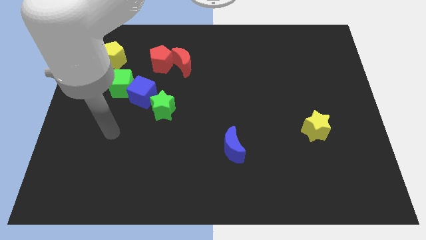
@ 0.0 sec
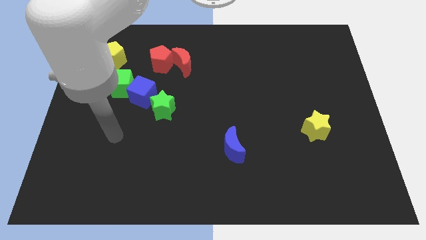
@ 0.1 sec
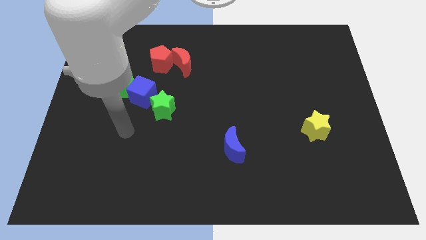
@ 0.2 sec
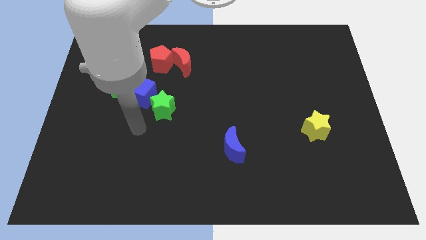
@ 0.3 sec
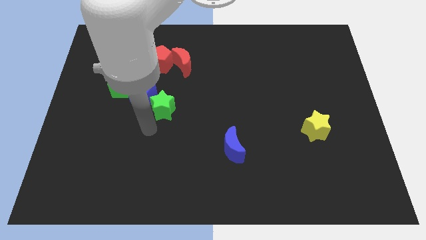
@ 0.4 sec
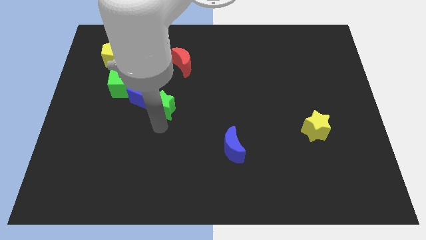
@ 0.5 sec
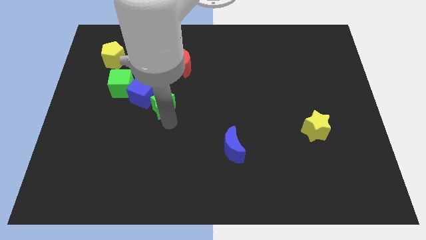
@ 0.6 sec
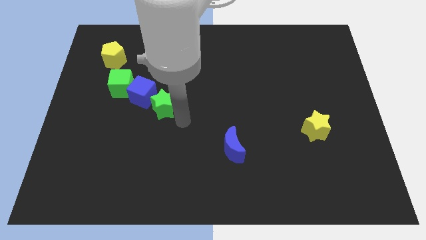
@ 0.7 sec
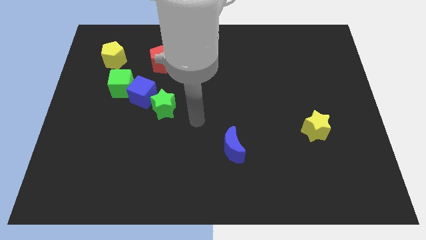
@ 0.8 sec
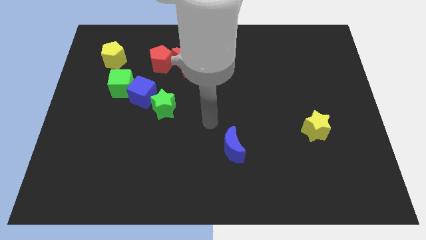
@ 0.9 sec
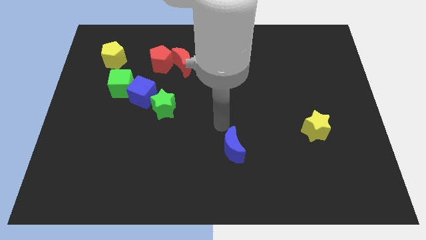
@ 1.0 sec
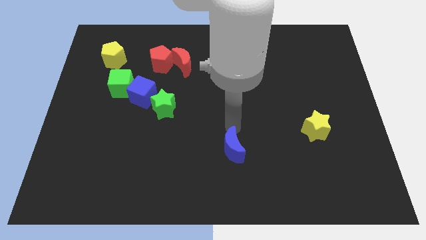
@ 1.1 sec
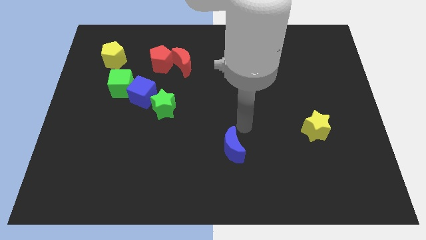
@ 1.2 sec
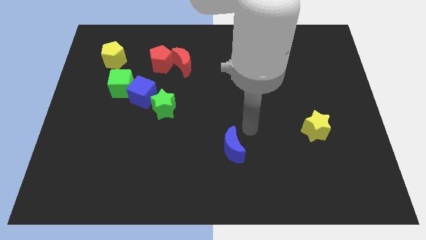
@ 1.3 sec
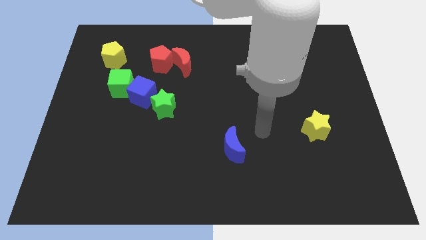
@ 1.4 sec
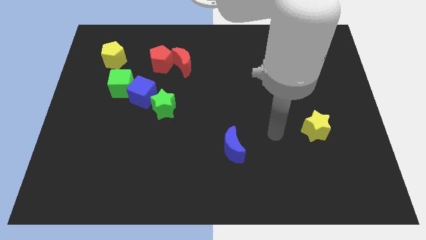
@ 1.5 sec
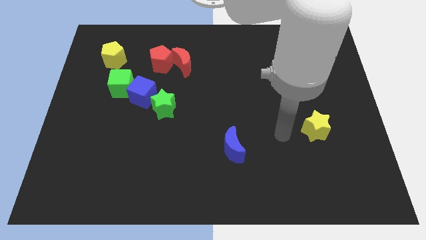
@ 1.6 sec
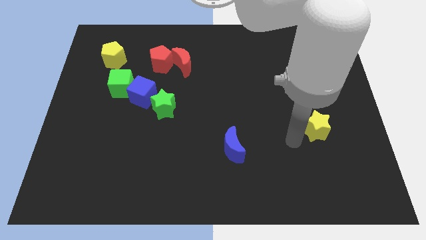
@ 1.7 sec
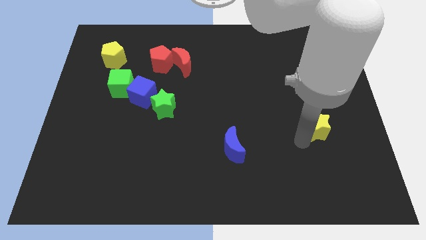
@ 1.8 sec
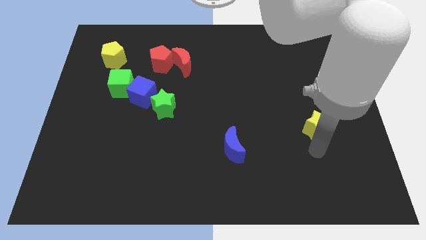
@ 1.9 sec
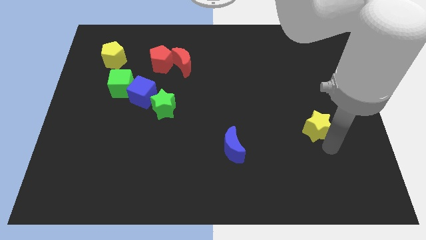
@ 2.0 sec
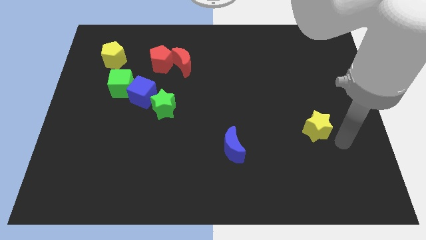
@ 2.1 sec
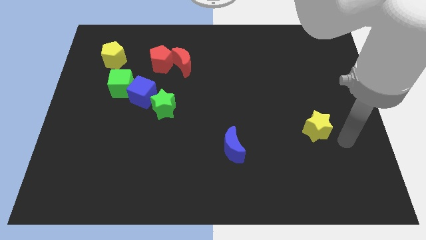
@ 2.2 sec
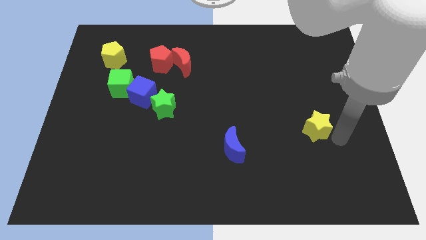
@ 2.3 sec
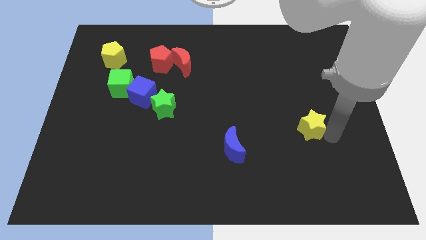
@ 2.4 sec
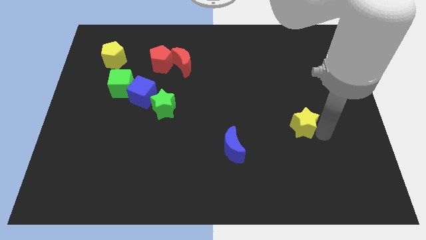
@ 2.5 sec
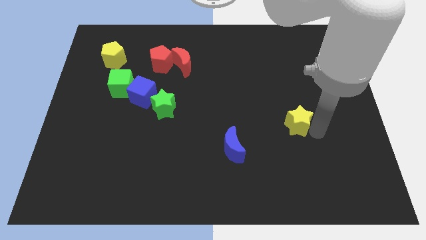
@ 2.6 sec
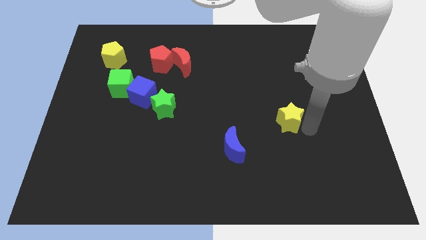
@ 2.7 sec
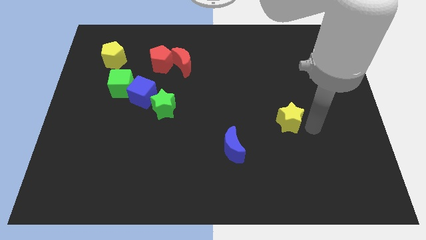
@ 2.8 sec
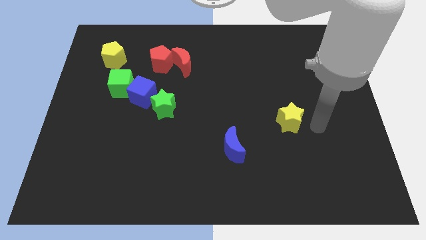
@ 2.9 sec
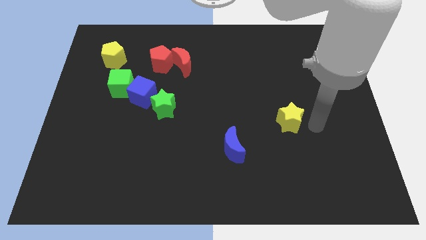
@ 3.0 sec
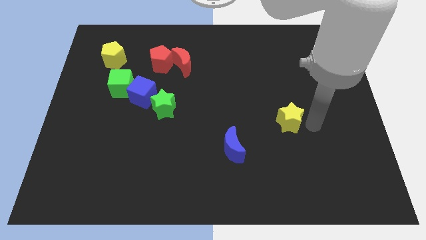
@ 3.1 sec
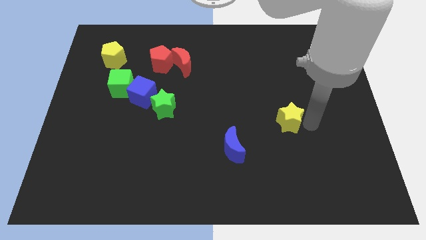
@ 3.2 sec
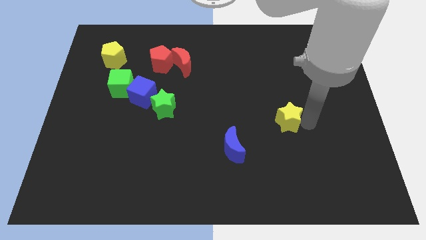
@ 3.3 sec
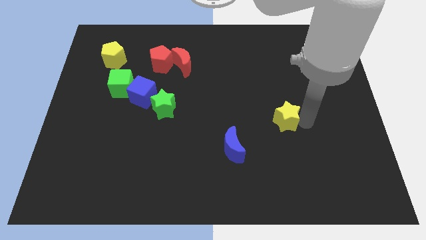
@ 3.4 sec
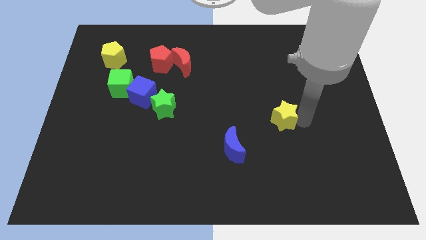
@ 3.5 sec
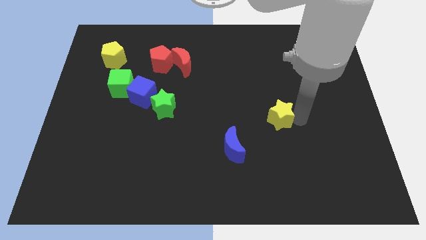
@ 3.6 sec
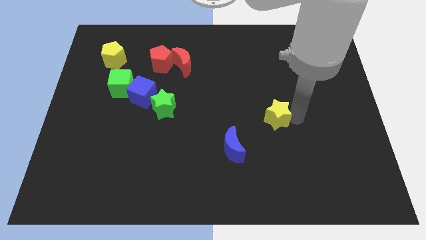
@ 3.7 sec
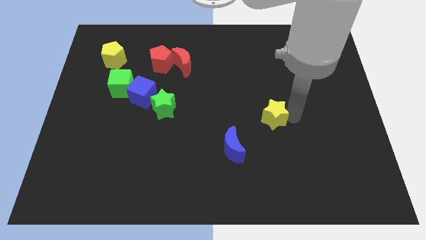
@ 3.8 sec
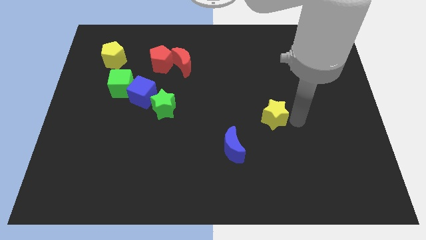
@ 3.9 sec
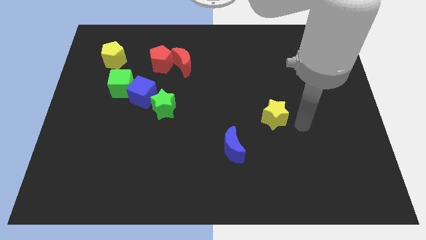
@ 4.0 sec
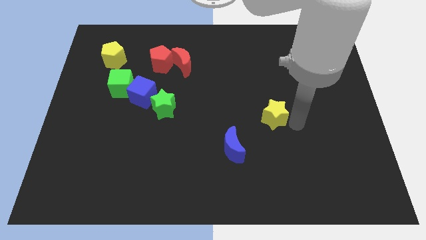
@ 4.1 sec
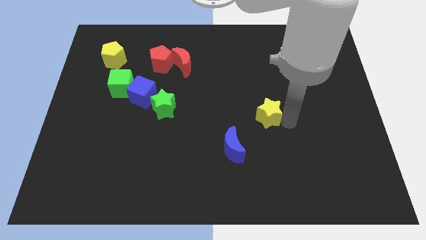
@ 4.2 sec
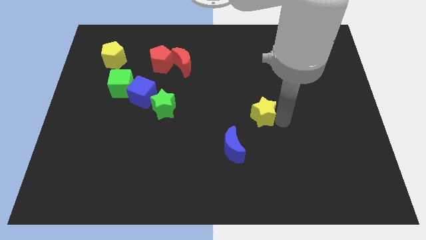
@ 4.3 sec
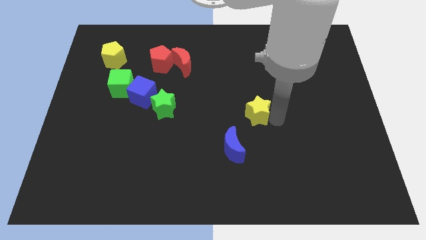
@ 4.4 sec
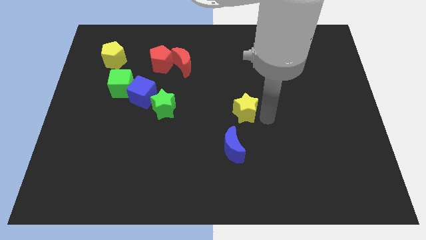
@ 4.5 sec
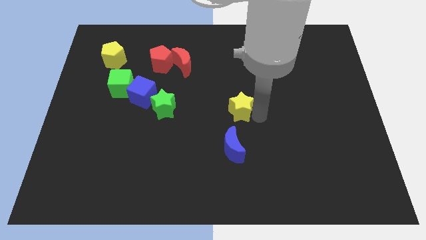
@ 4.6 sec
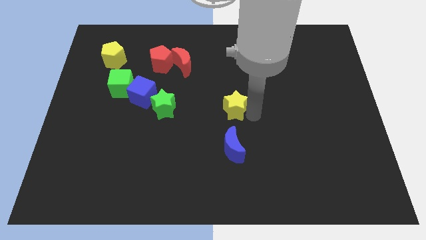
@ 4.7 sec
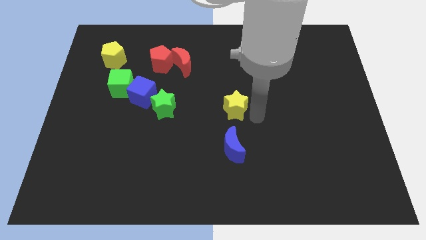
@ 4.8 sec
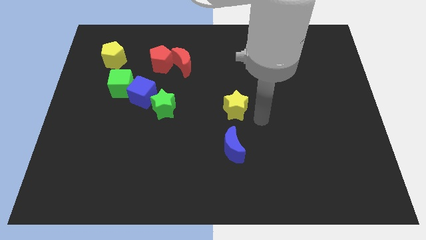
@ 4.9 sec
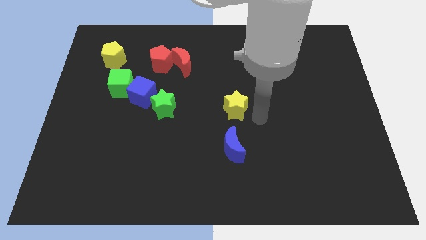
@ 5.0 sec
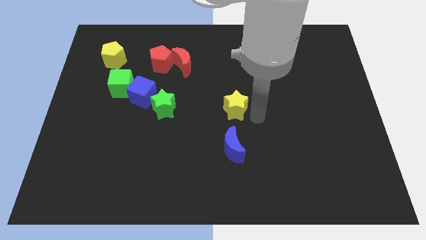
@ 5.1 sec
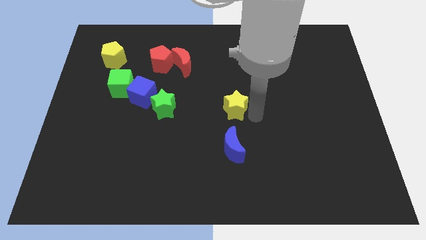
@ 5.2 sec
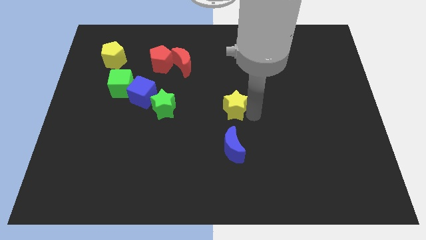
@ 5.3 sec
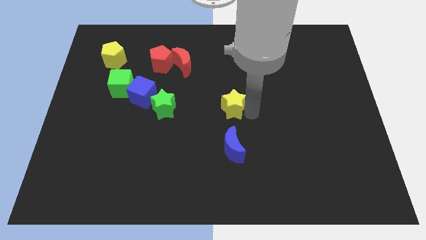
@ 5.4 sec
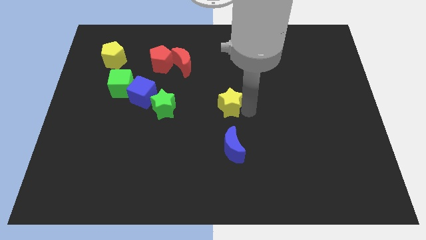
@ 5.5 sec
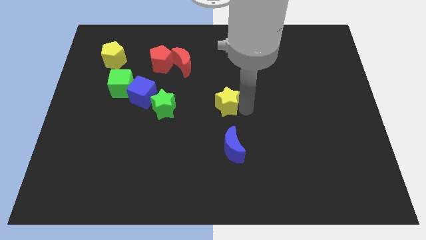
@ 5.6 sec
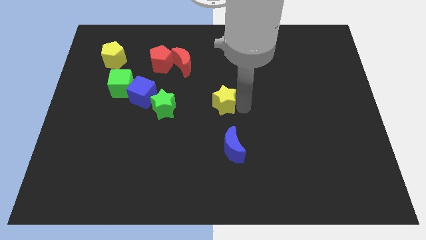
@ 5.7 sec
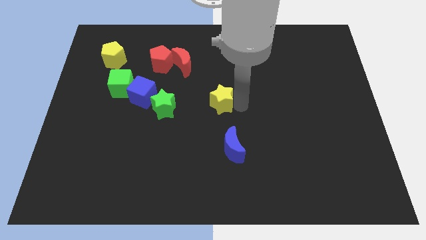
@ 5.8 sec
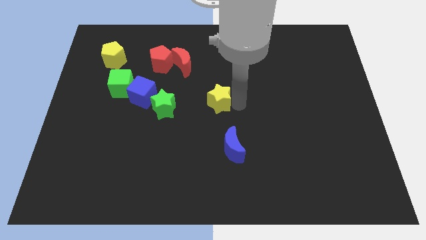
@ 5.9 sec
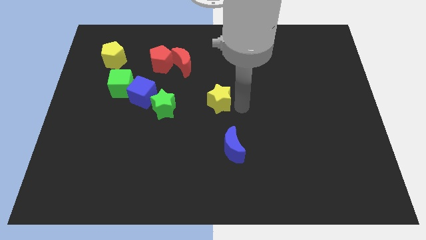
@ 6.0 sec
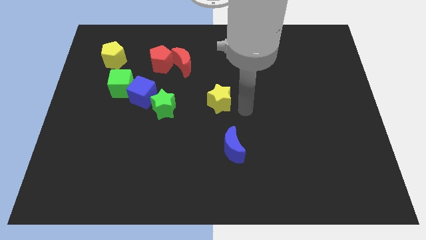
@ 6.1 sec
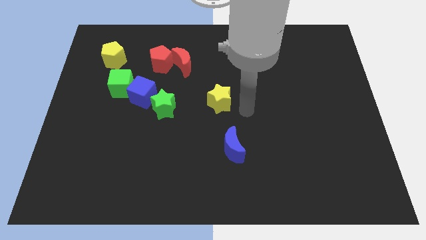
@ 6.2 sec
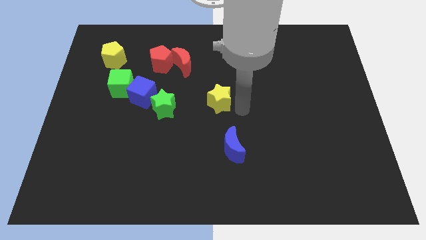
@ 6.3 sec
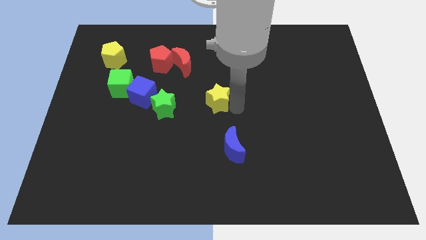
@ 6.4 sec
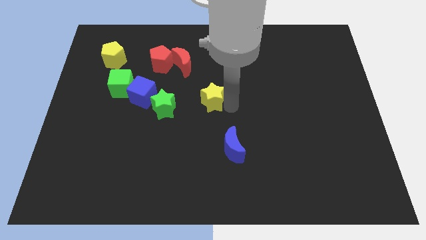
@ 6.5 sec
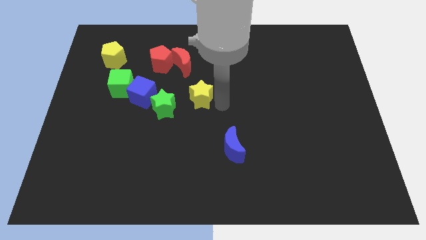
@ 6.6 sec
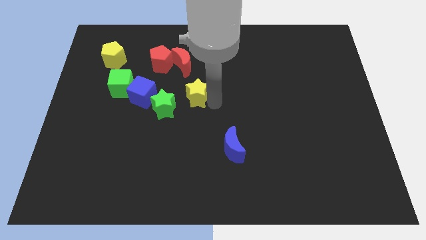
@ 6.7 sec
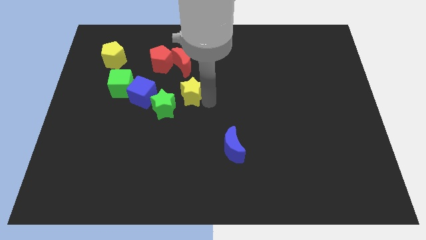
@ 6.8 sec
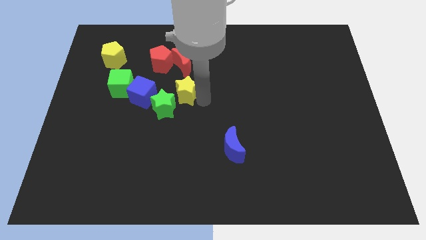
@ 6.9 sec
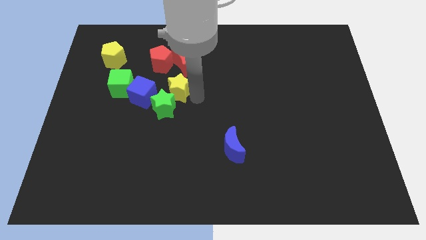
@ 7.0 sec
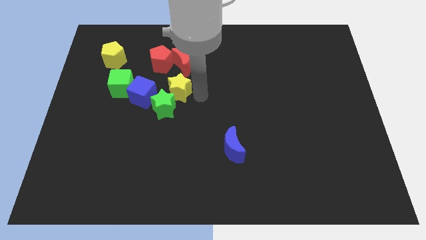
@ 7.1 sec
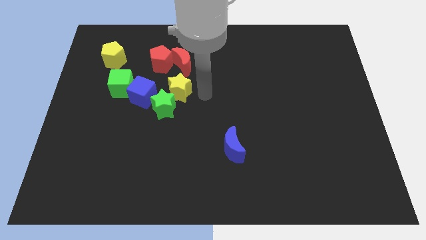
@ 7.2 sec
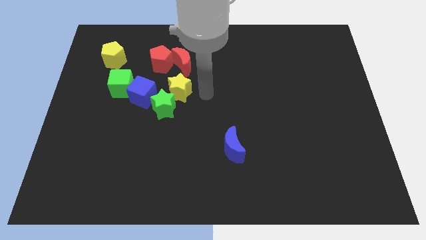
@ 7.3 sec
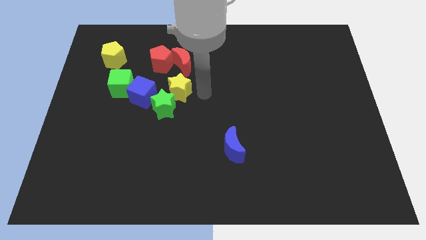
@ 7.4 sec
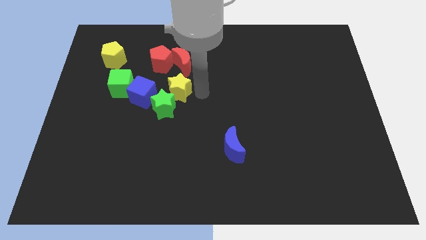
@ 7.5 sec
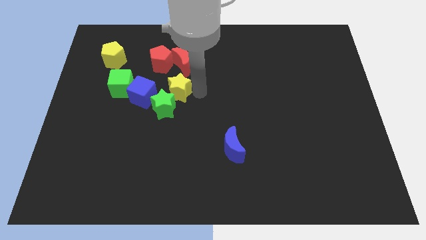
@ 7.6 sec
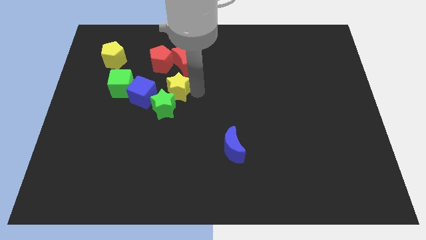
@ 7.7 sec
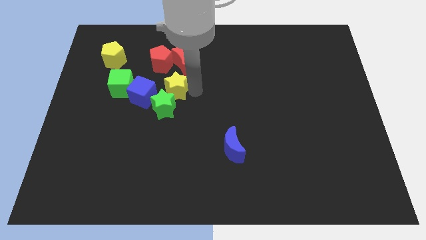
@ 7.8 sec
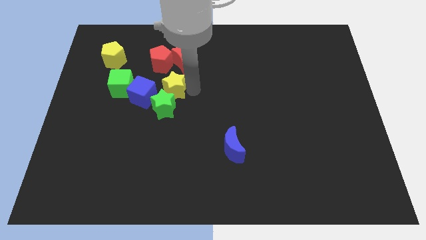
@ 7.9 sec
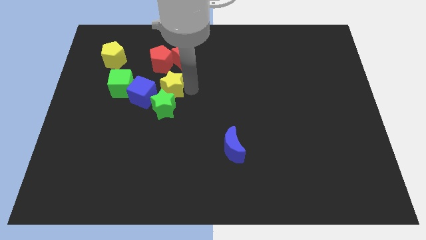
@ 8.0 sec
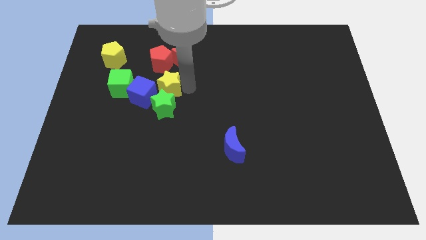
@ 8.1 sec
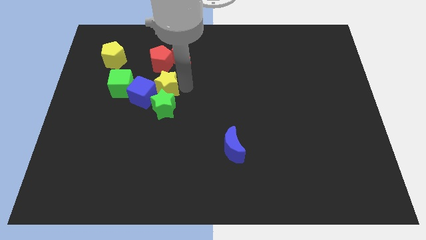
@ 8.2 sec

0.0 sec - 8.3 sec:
move the yellow star next to the blue cube
